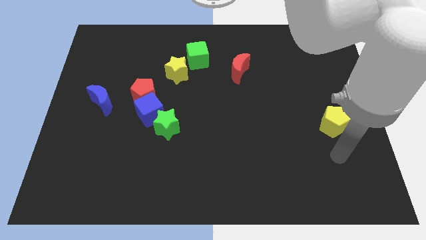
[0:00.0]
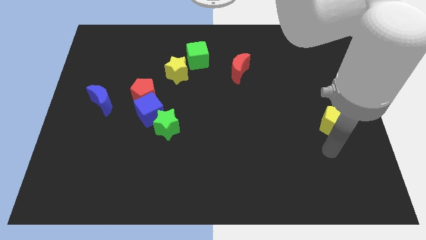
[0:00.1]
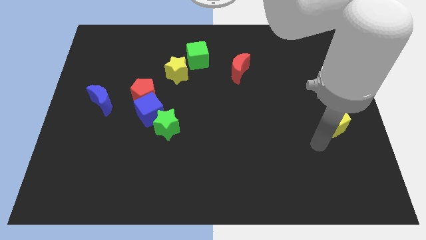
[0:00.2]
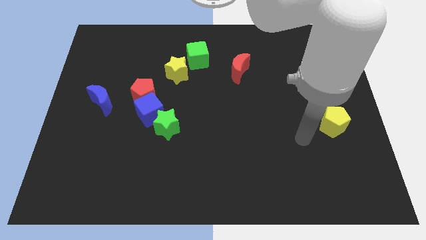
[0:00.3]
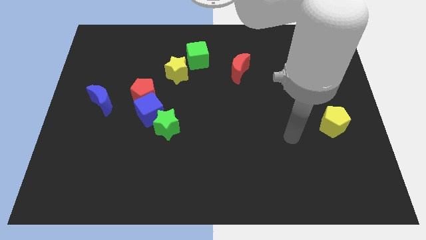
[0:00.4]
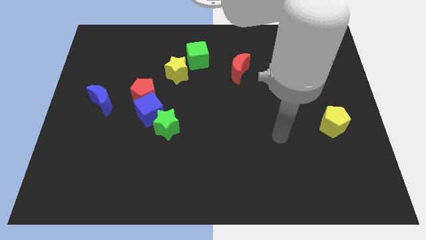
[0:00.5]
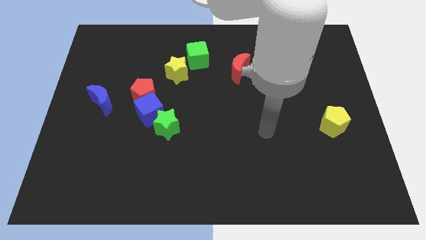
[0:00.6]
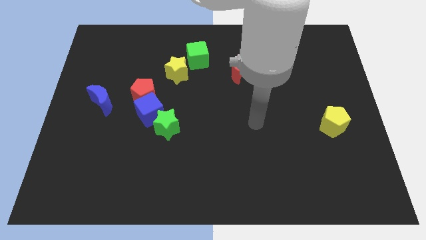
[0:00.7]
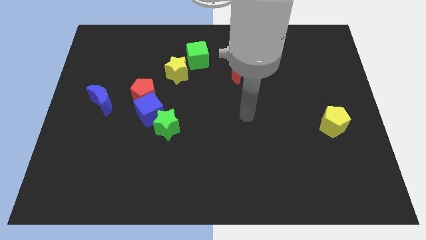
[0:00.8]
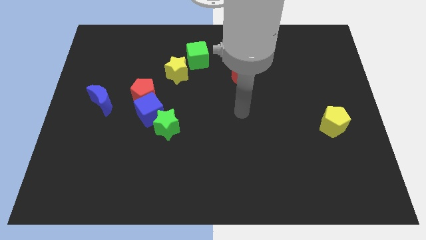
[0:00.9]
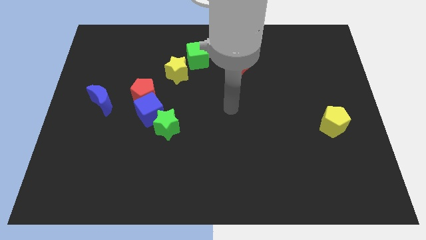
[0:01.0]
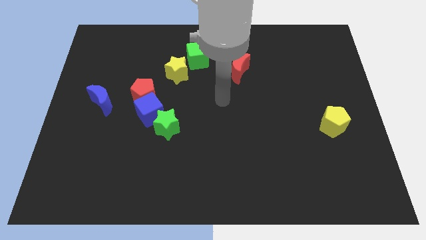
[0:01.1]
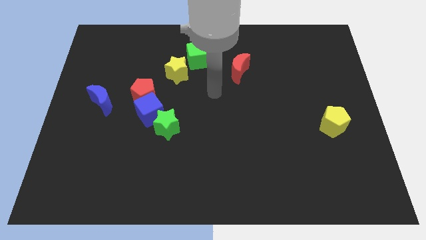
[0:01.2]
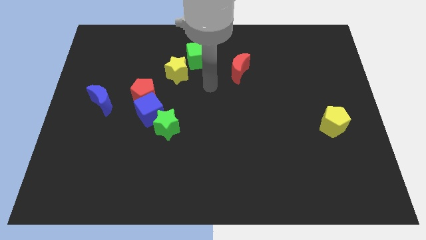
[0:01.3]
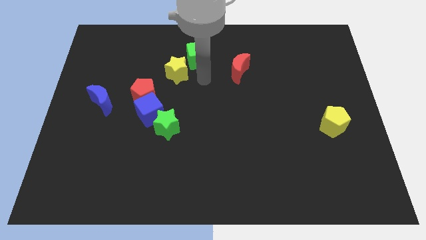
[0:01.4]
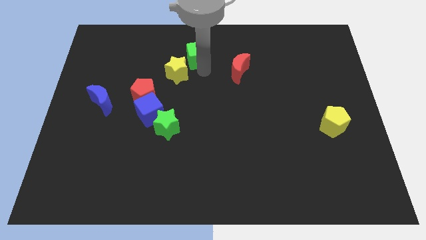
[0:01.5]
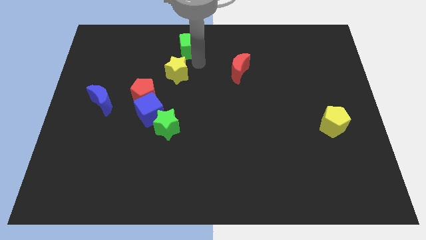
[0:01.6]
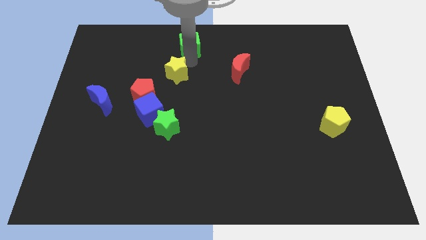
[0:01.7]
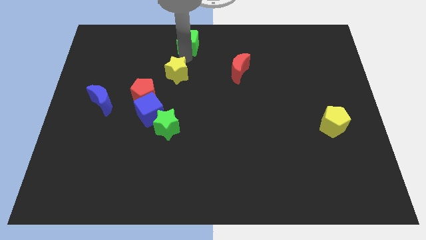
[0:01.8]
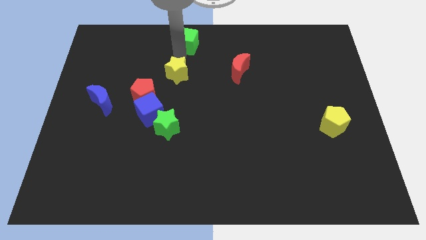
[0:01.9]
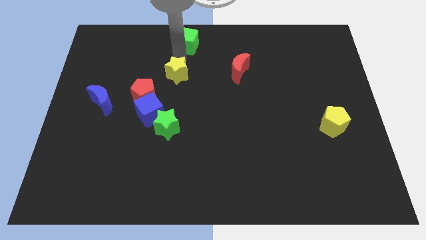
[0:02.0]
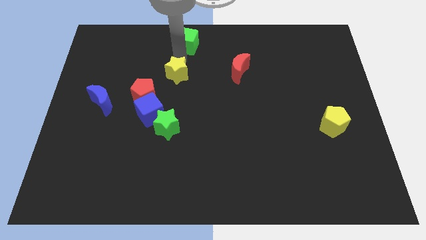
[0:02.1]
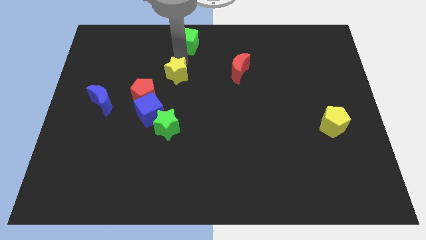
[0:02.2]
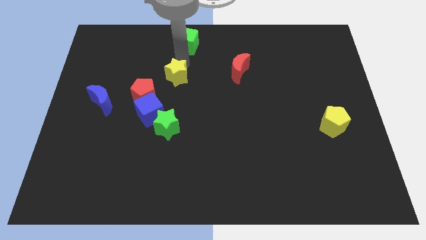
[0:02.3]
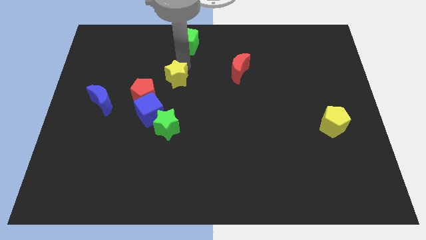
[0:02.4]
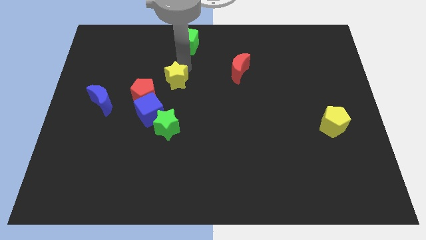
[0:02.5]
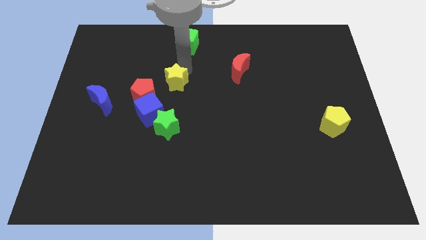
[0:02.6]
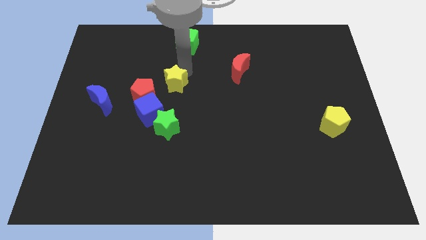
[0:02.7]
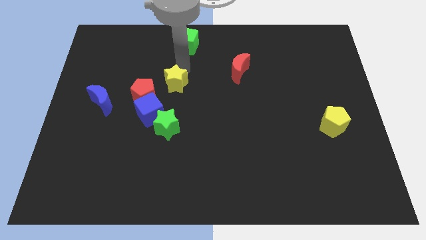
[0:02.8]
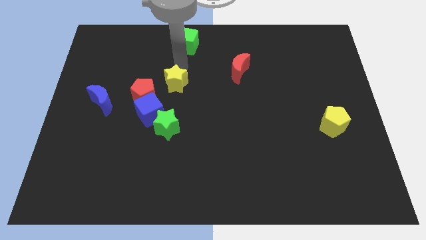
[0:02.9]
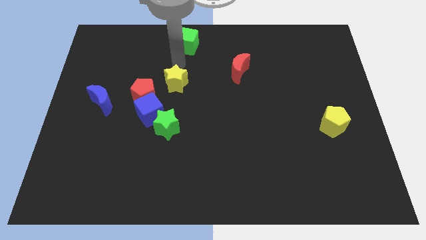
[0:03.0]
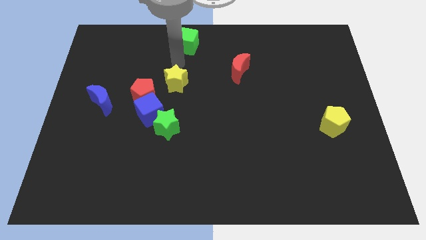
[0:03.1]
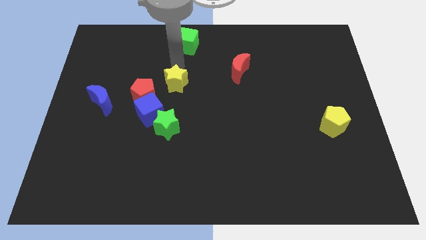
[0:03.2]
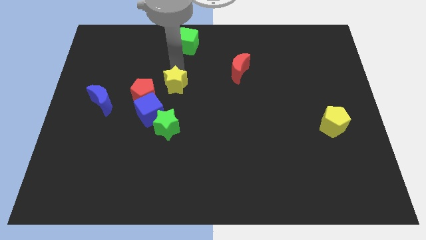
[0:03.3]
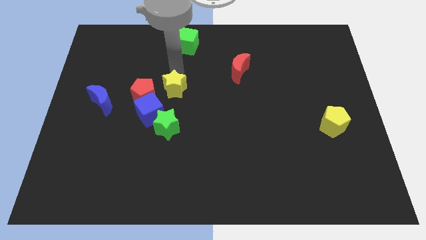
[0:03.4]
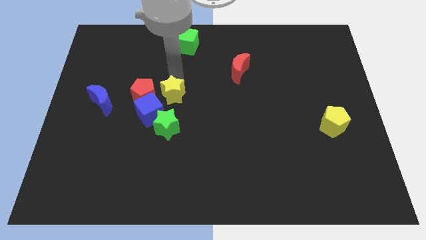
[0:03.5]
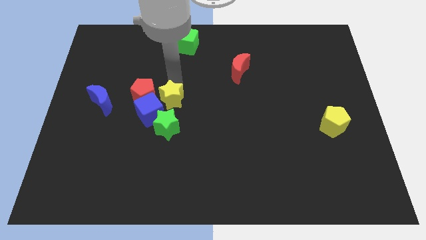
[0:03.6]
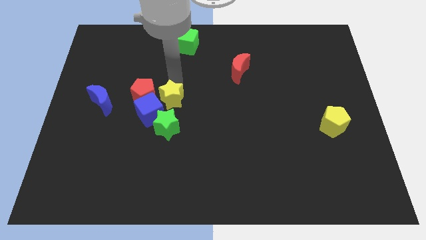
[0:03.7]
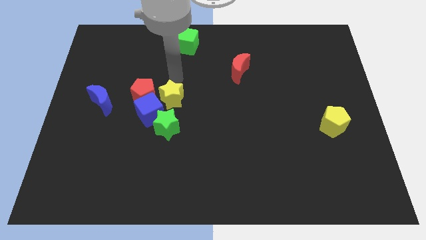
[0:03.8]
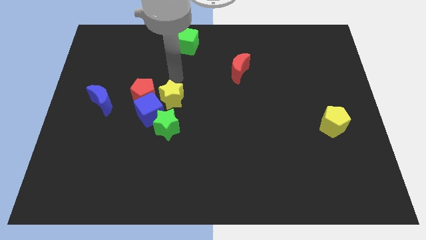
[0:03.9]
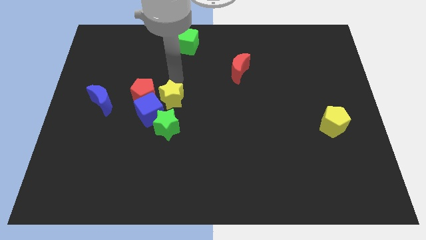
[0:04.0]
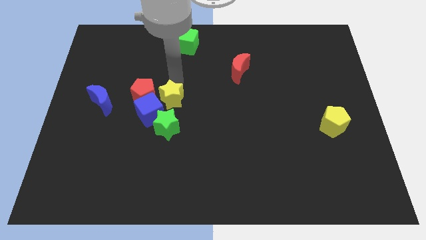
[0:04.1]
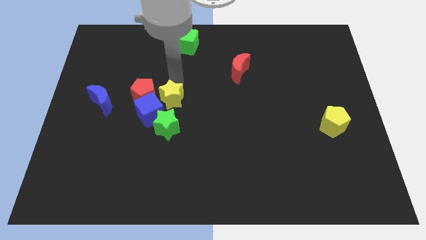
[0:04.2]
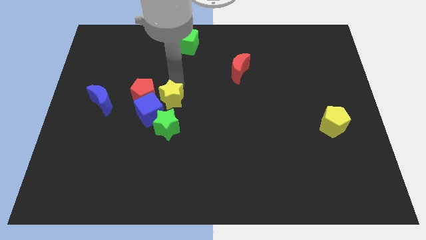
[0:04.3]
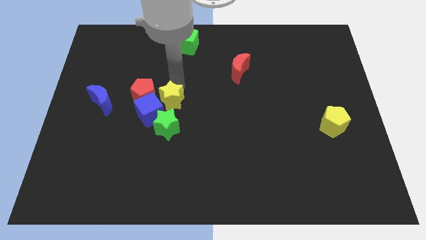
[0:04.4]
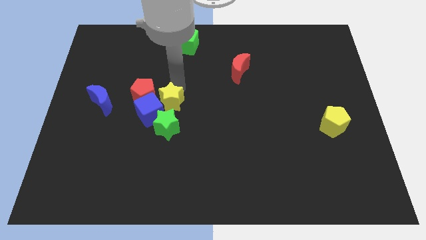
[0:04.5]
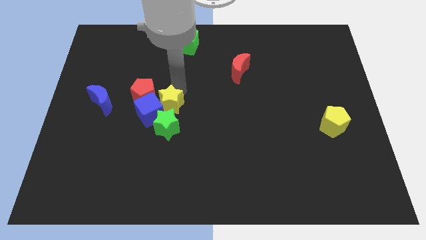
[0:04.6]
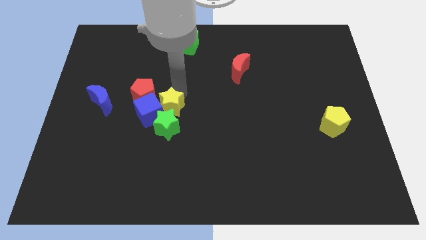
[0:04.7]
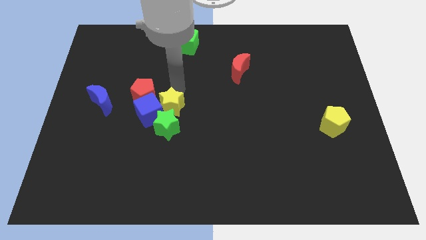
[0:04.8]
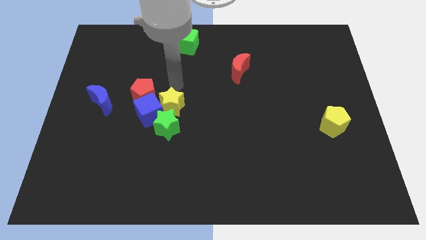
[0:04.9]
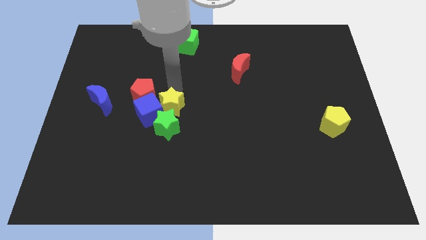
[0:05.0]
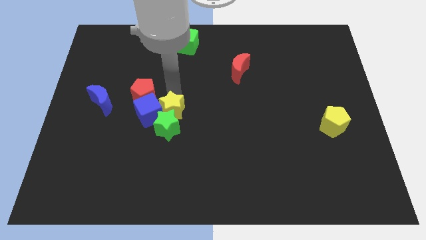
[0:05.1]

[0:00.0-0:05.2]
put the yellow star to the green star

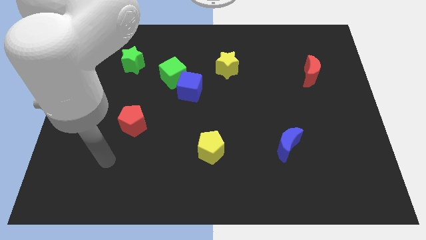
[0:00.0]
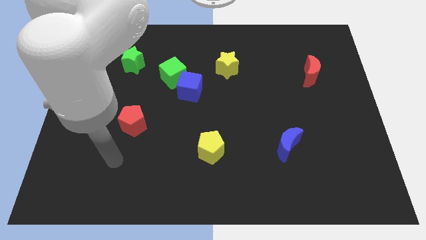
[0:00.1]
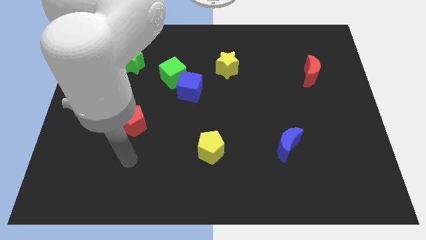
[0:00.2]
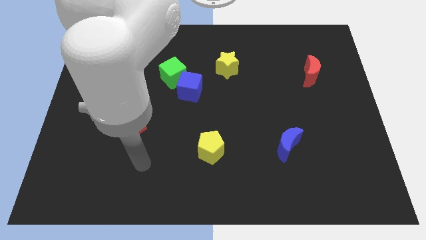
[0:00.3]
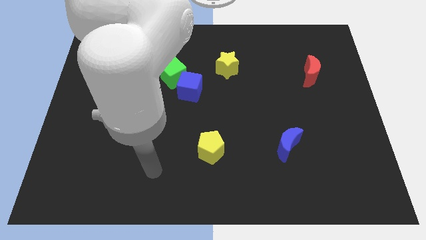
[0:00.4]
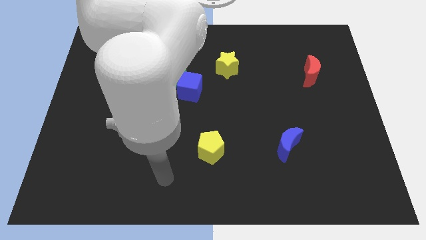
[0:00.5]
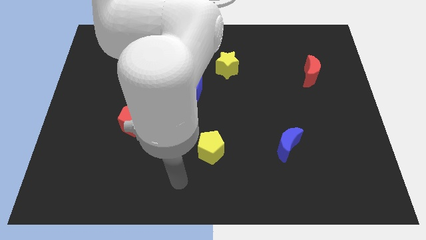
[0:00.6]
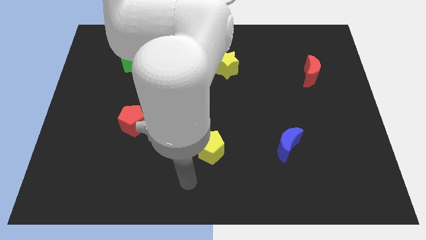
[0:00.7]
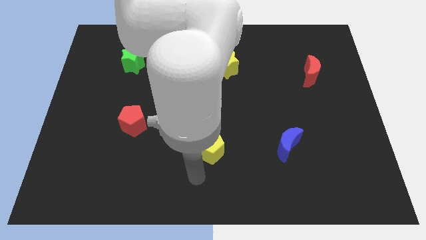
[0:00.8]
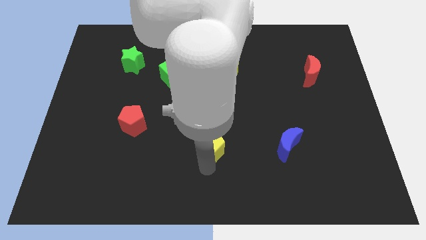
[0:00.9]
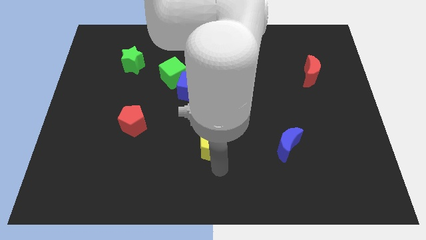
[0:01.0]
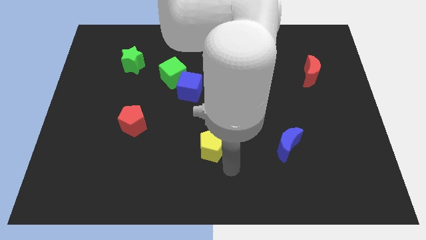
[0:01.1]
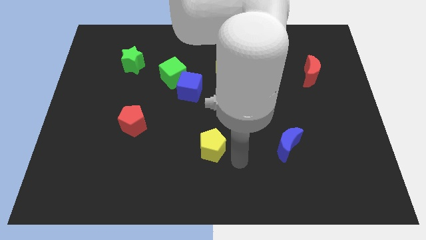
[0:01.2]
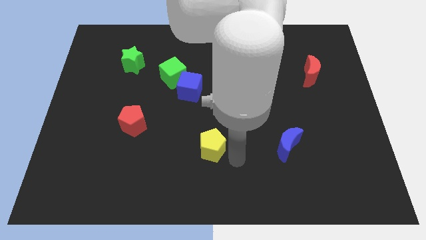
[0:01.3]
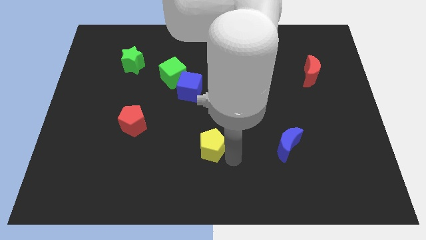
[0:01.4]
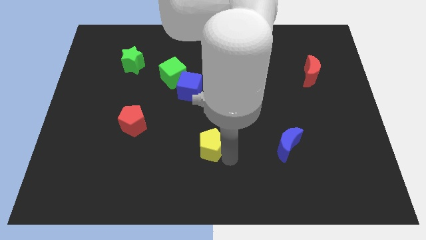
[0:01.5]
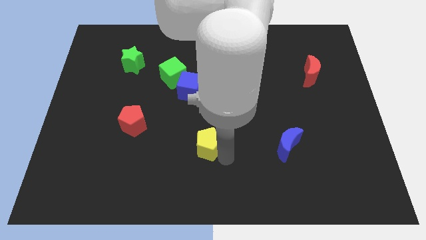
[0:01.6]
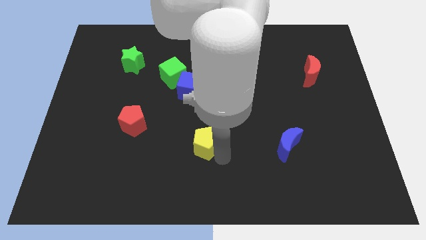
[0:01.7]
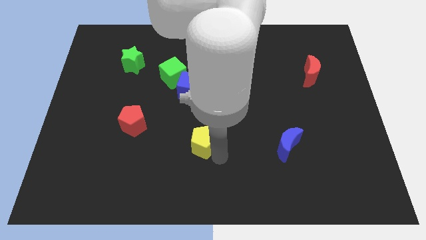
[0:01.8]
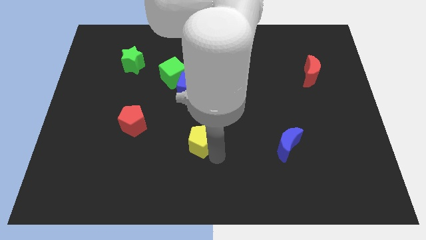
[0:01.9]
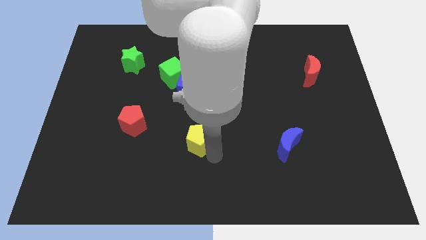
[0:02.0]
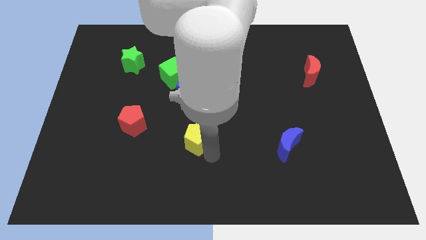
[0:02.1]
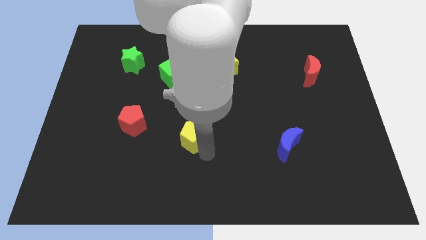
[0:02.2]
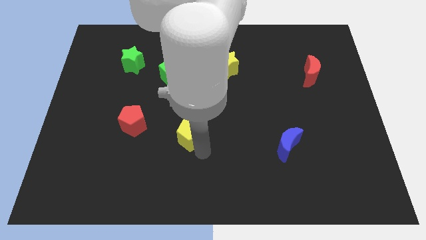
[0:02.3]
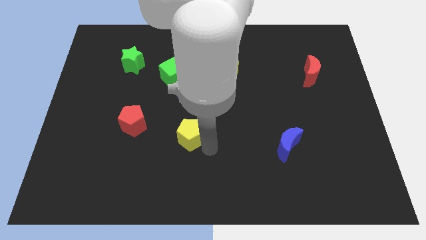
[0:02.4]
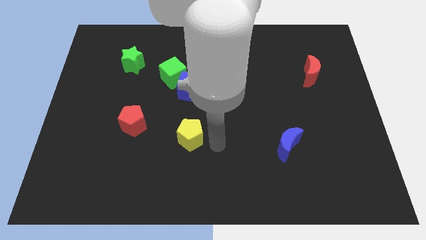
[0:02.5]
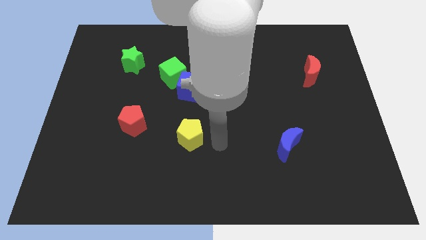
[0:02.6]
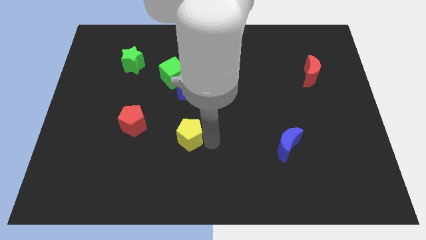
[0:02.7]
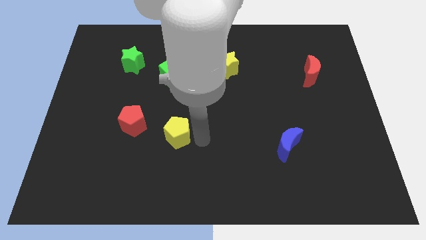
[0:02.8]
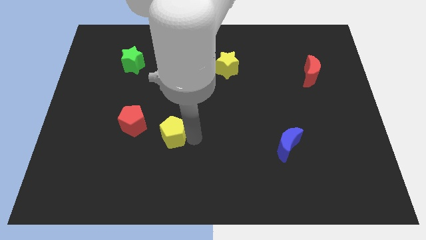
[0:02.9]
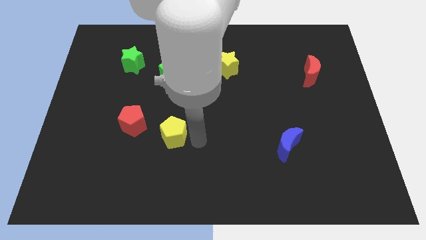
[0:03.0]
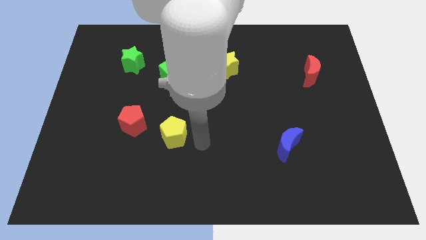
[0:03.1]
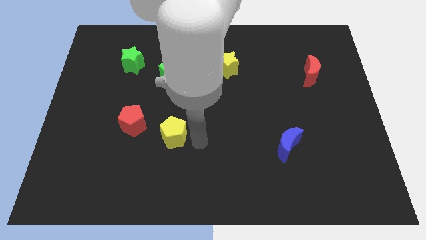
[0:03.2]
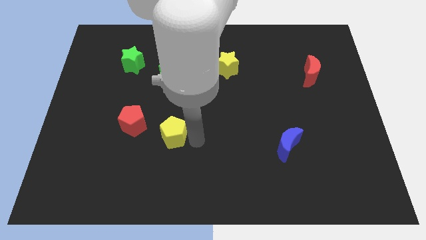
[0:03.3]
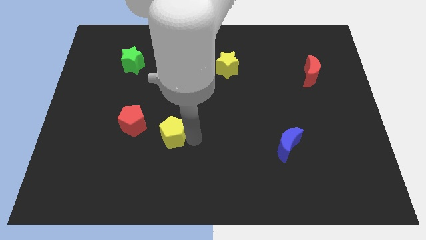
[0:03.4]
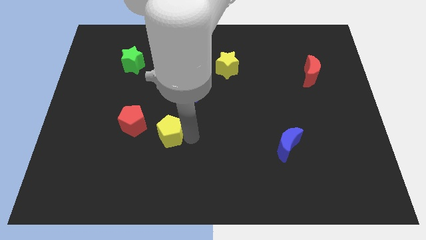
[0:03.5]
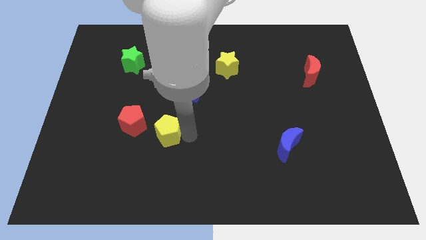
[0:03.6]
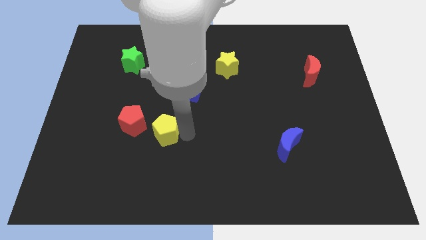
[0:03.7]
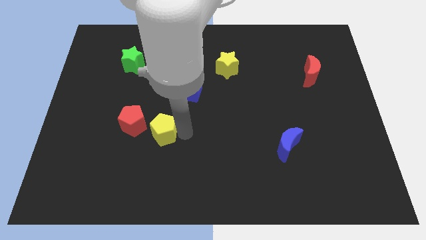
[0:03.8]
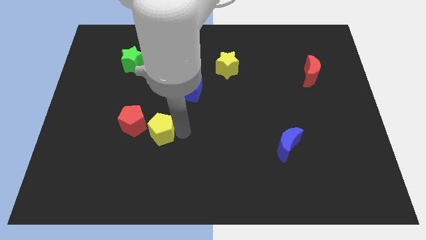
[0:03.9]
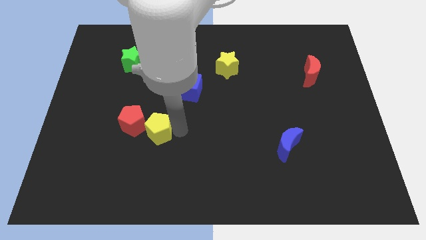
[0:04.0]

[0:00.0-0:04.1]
move the yellow pentagon next to the red pentagon
